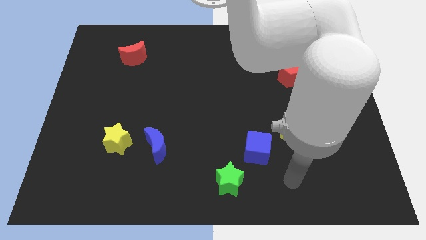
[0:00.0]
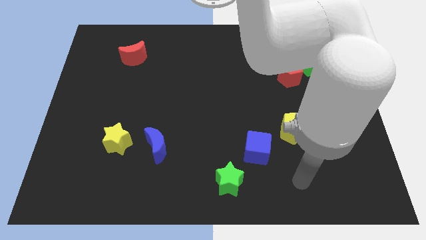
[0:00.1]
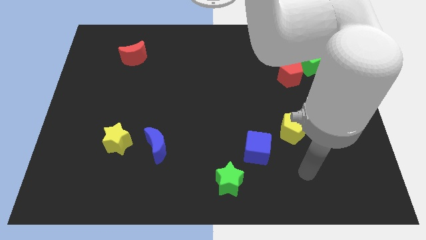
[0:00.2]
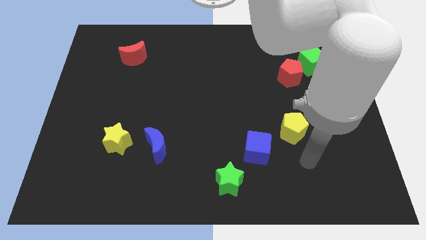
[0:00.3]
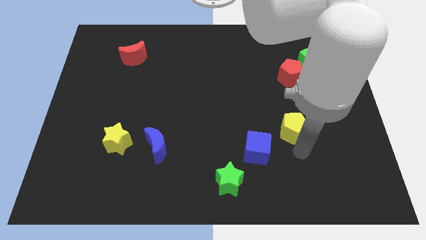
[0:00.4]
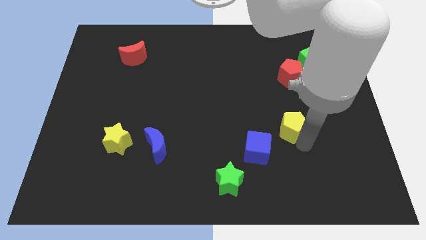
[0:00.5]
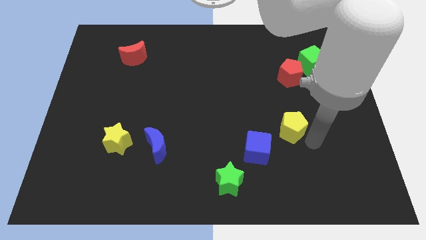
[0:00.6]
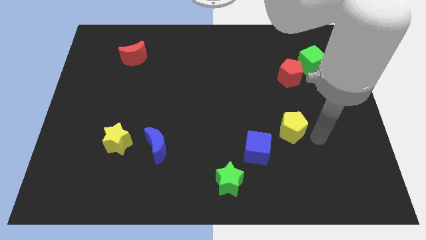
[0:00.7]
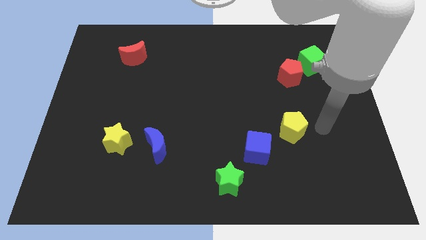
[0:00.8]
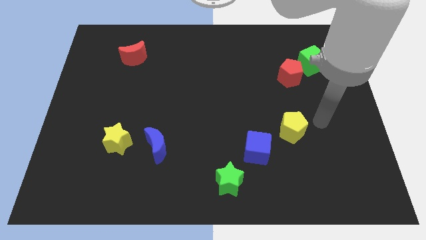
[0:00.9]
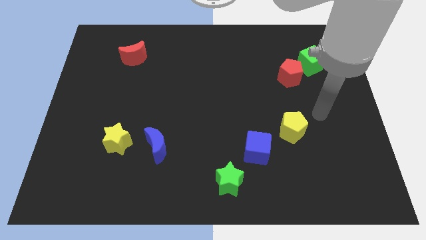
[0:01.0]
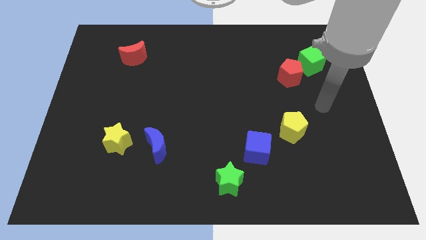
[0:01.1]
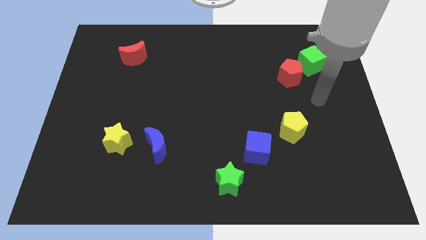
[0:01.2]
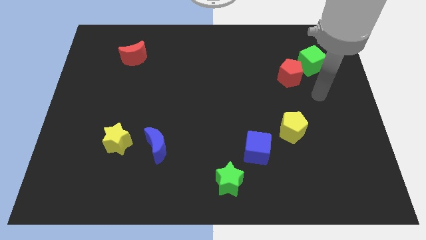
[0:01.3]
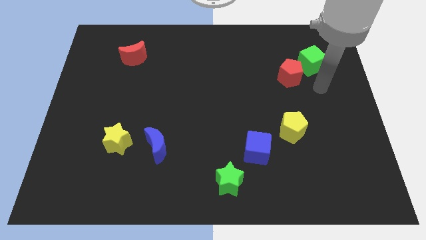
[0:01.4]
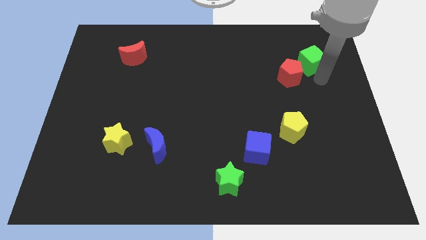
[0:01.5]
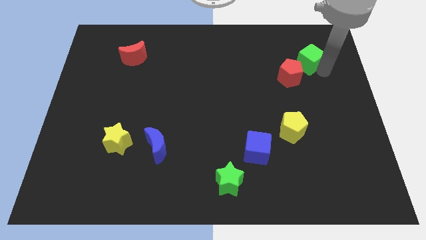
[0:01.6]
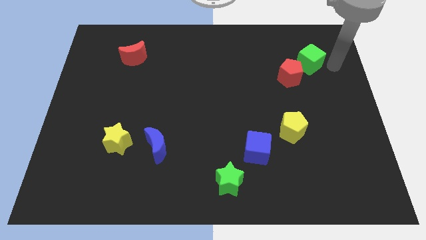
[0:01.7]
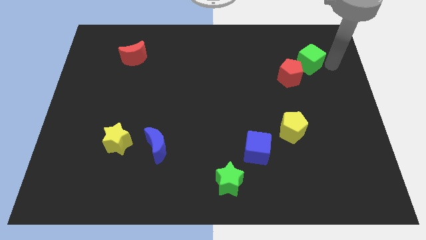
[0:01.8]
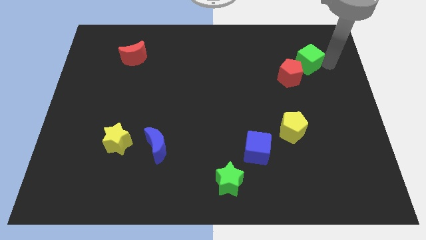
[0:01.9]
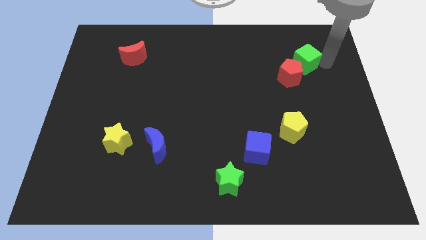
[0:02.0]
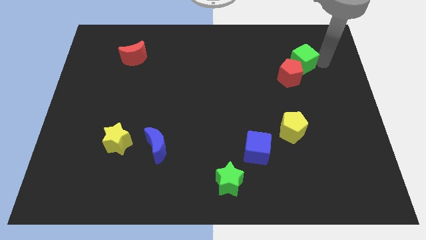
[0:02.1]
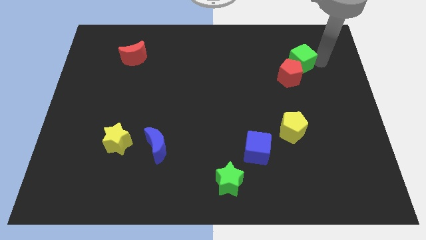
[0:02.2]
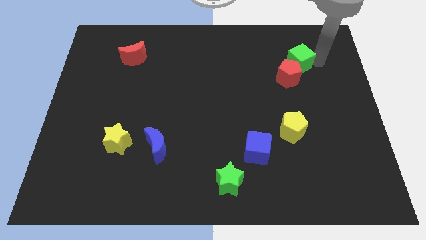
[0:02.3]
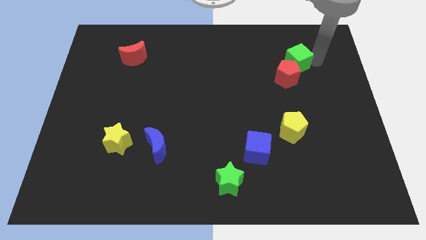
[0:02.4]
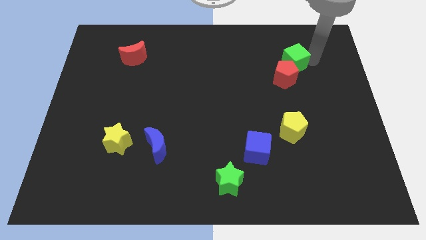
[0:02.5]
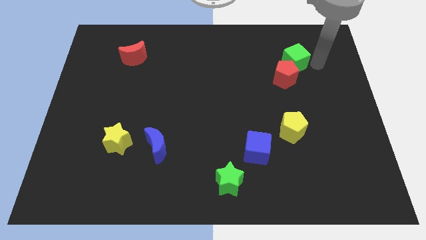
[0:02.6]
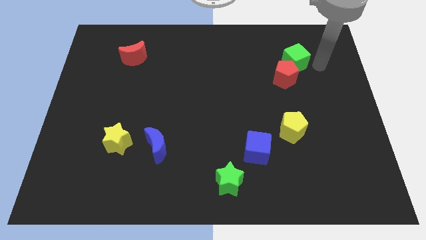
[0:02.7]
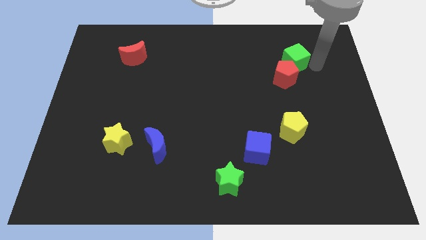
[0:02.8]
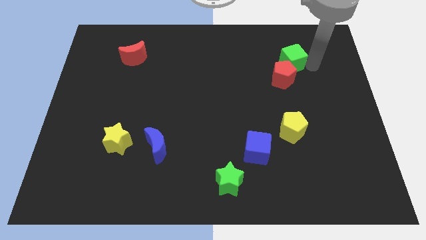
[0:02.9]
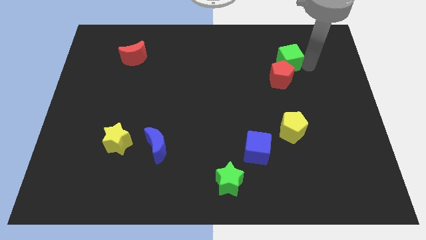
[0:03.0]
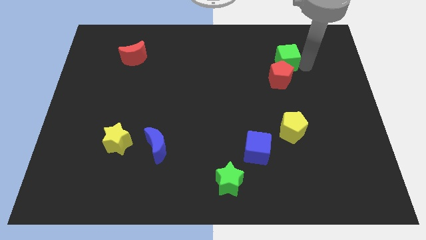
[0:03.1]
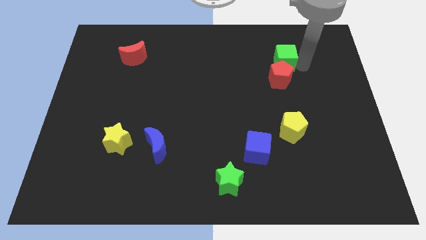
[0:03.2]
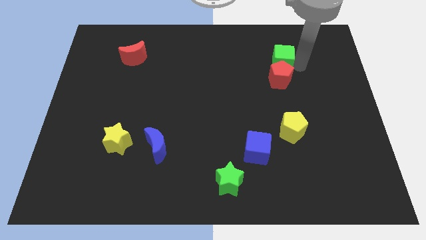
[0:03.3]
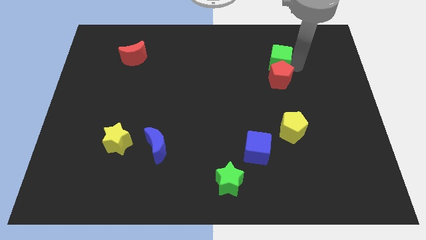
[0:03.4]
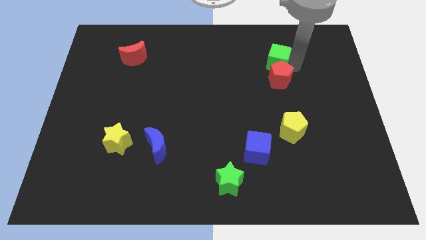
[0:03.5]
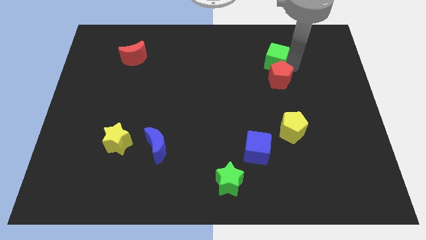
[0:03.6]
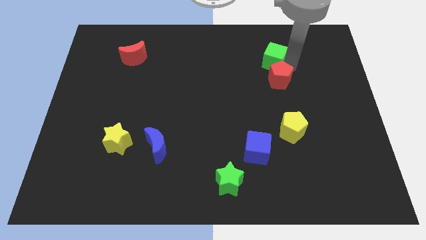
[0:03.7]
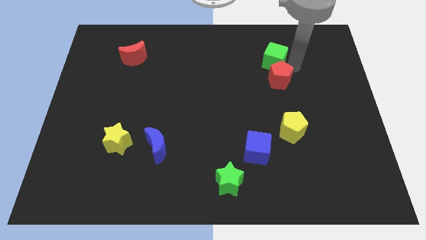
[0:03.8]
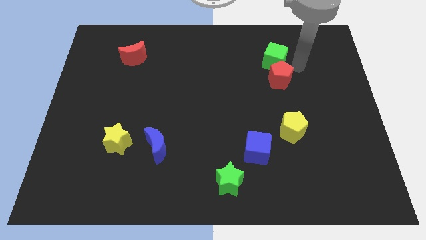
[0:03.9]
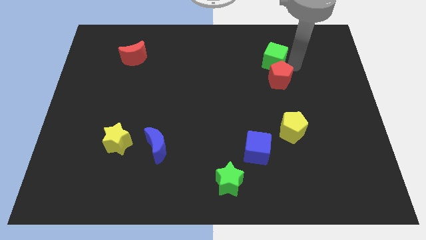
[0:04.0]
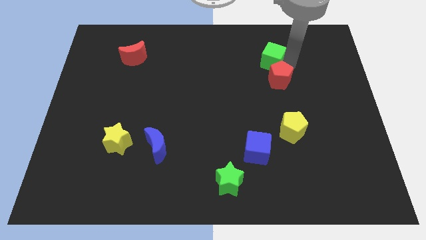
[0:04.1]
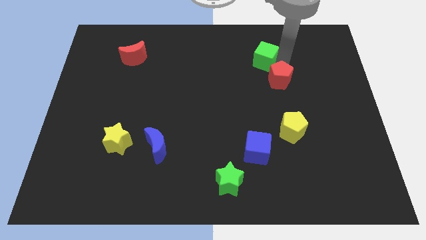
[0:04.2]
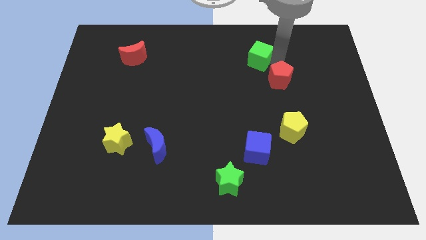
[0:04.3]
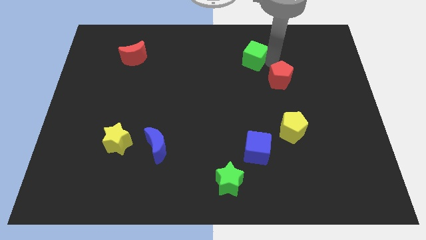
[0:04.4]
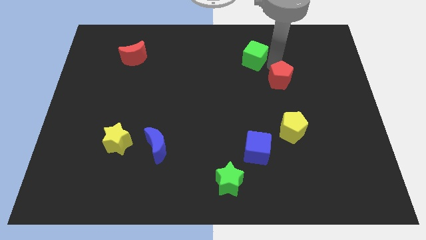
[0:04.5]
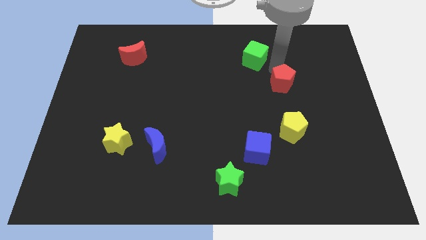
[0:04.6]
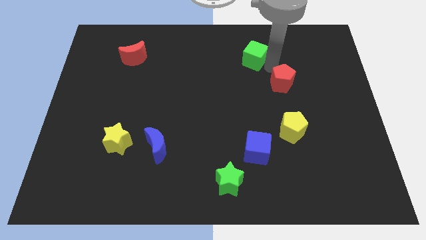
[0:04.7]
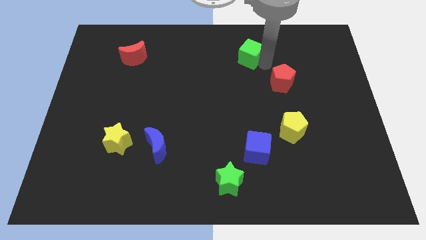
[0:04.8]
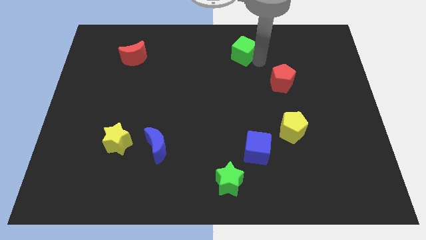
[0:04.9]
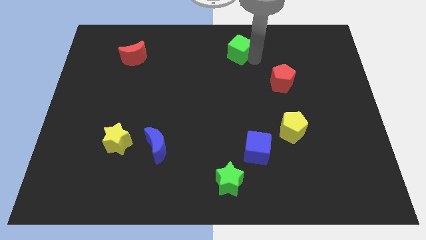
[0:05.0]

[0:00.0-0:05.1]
slide the green cube to the top side
